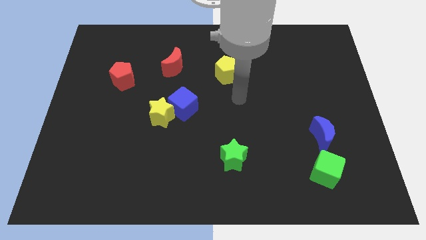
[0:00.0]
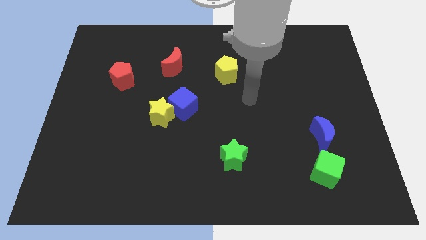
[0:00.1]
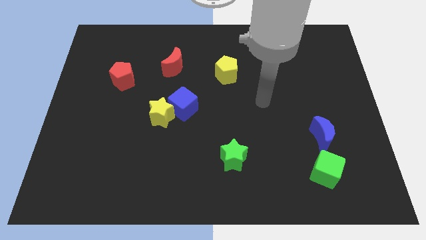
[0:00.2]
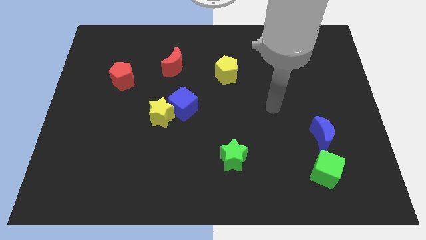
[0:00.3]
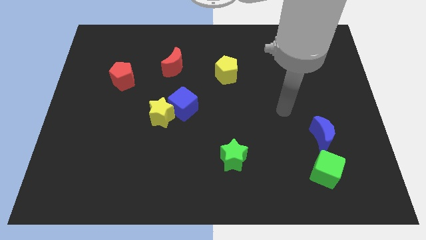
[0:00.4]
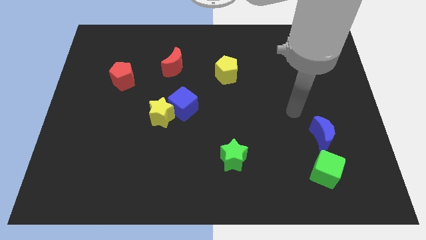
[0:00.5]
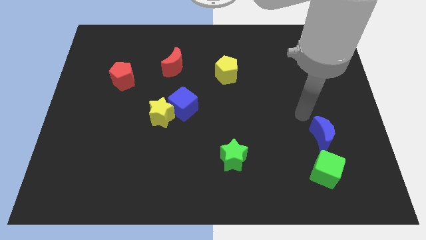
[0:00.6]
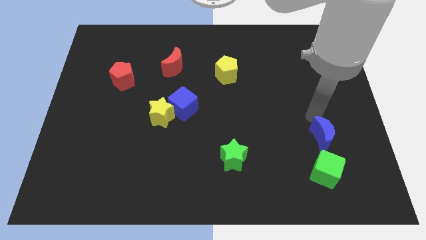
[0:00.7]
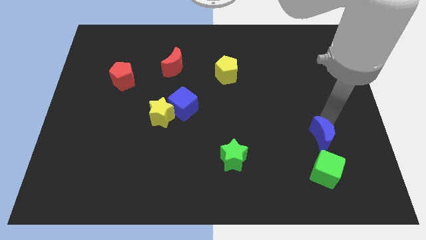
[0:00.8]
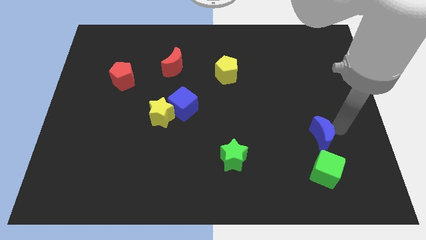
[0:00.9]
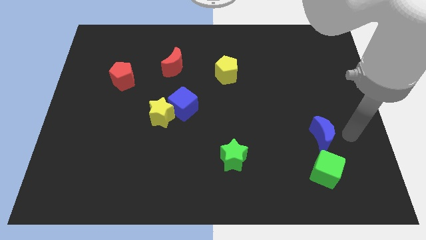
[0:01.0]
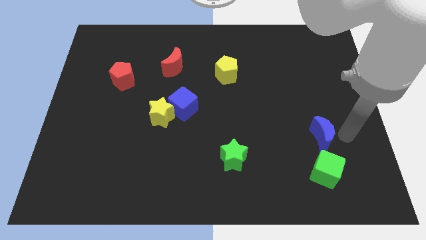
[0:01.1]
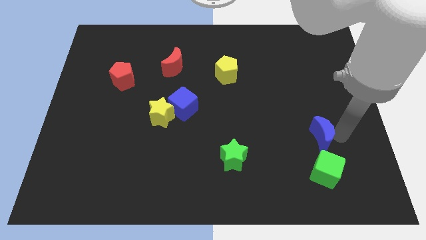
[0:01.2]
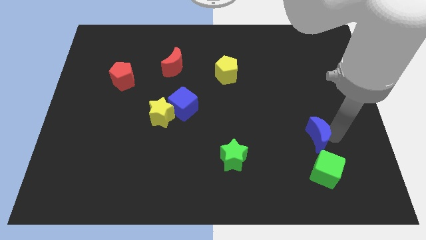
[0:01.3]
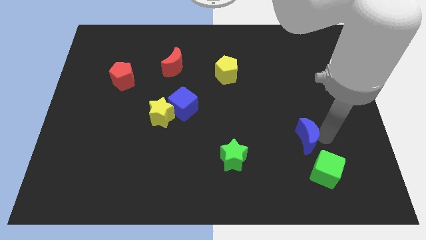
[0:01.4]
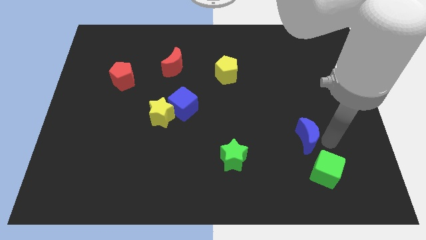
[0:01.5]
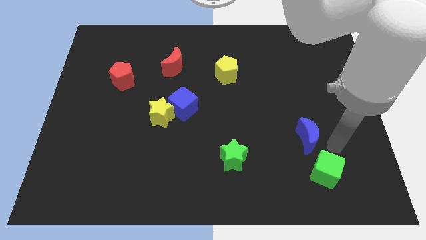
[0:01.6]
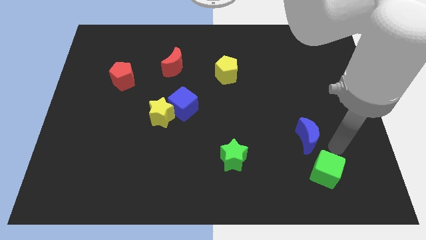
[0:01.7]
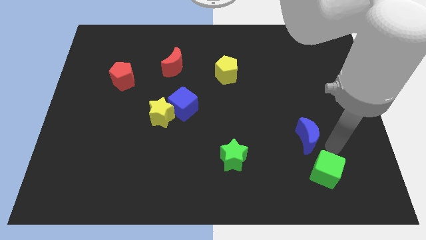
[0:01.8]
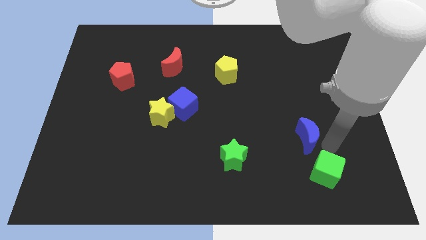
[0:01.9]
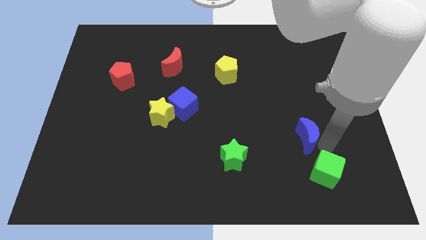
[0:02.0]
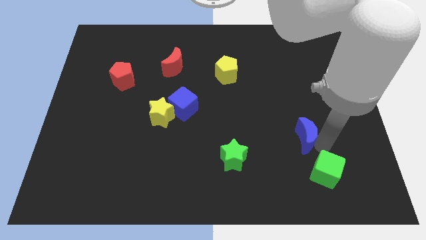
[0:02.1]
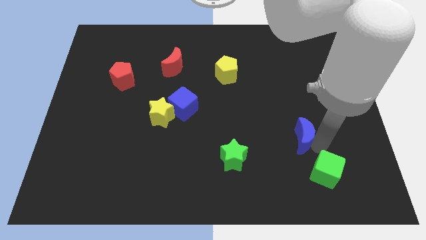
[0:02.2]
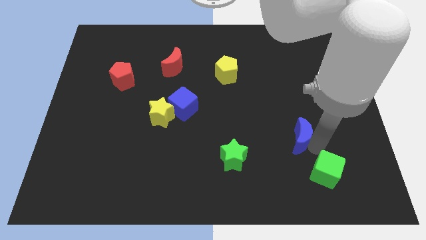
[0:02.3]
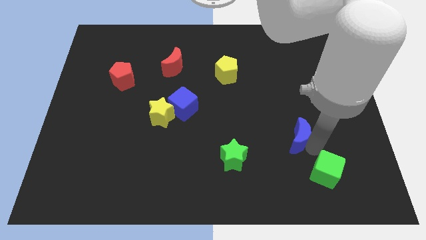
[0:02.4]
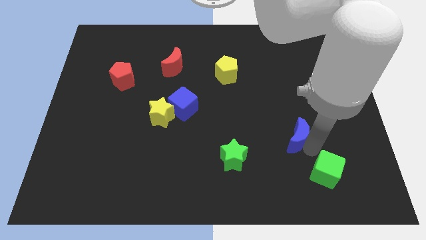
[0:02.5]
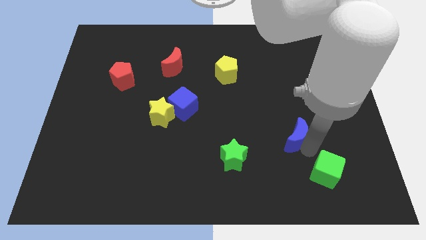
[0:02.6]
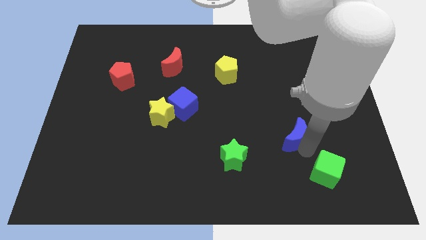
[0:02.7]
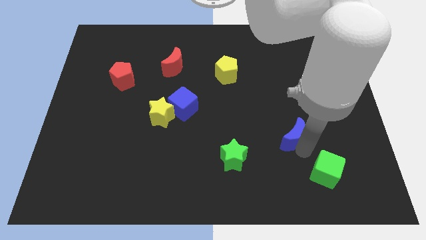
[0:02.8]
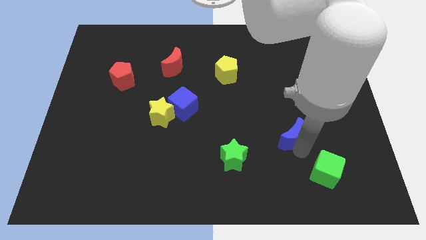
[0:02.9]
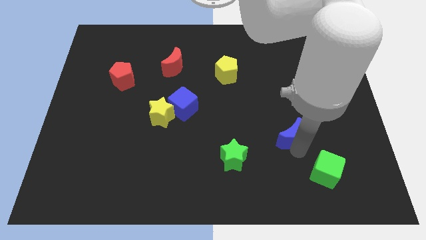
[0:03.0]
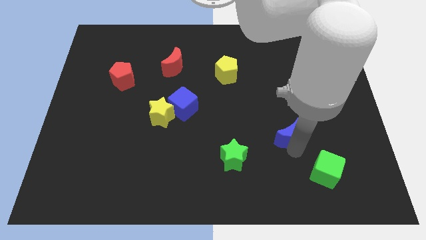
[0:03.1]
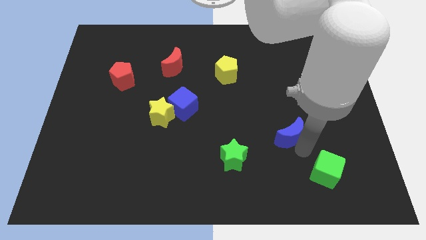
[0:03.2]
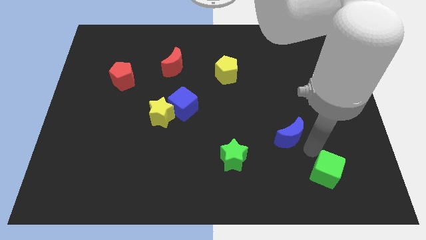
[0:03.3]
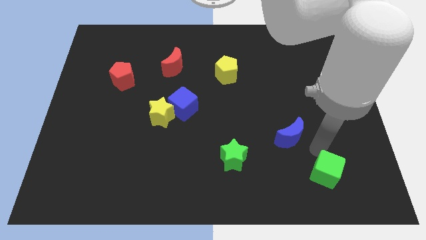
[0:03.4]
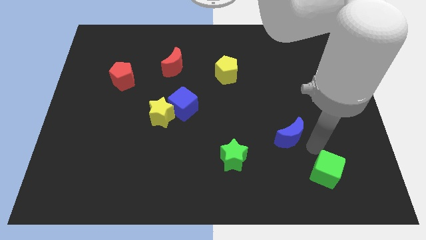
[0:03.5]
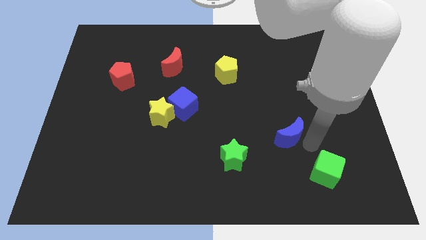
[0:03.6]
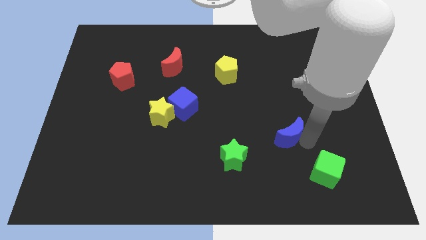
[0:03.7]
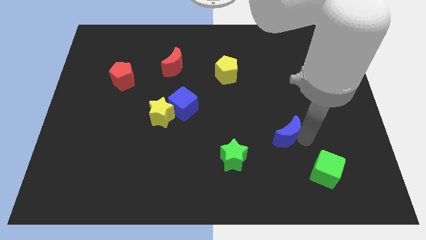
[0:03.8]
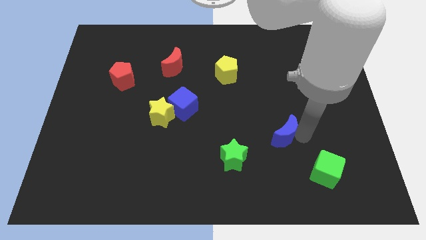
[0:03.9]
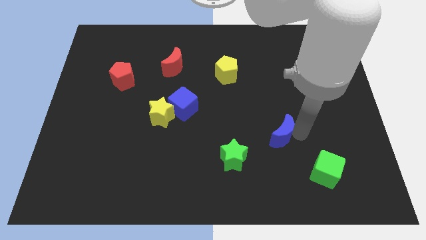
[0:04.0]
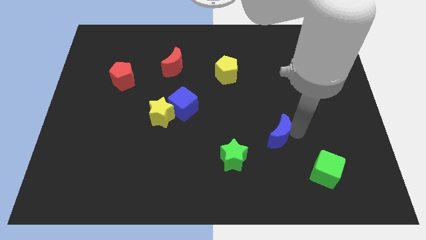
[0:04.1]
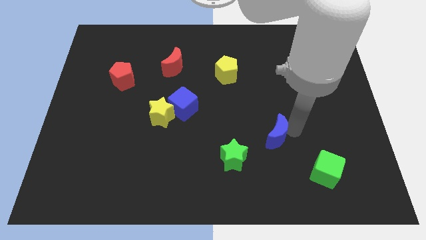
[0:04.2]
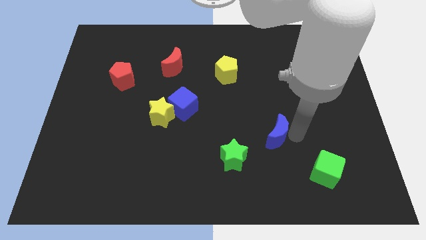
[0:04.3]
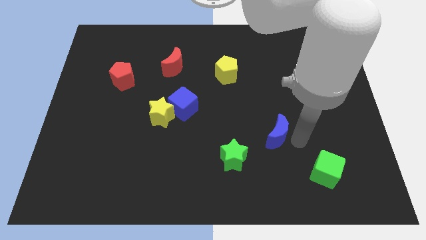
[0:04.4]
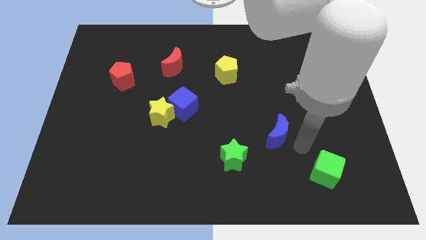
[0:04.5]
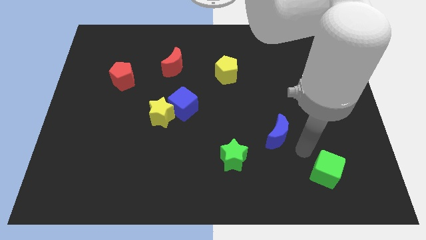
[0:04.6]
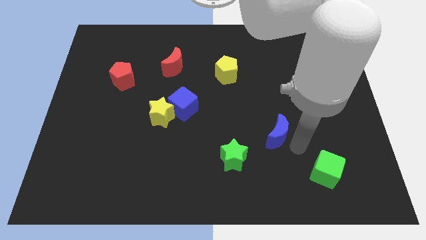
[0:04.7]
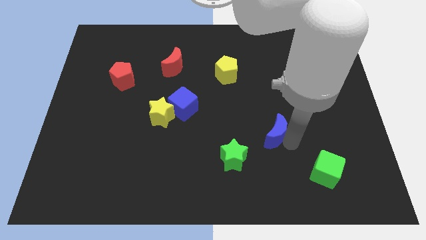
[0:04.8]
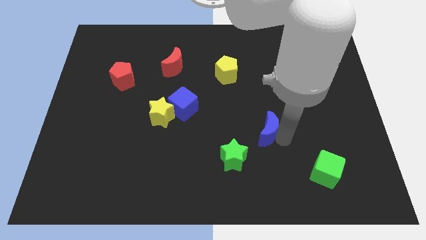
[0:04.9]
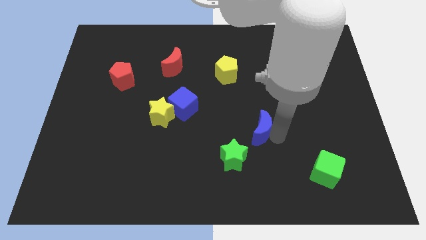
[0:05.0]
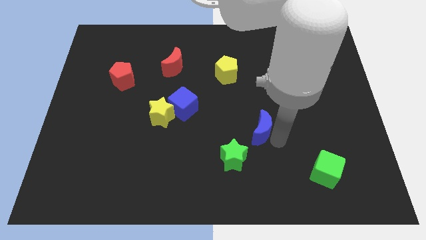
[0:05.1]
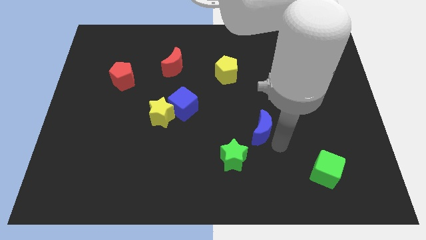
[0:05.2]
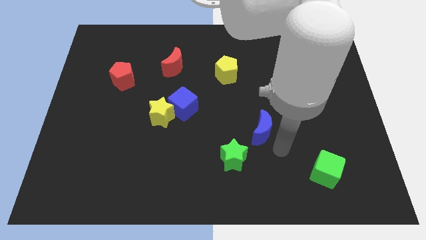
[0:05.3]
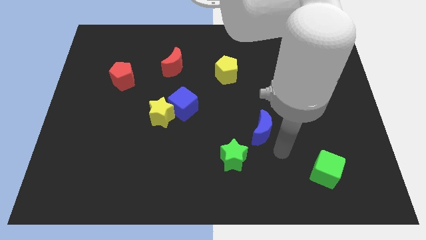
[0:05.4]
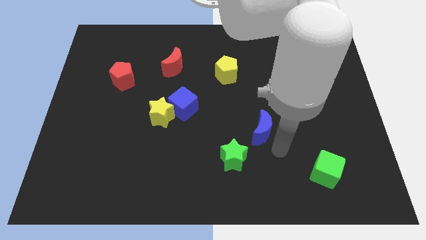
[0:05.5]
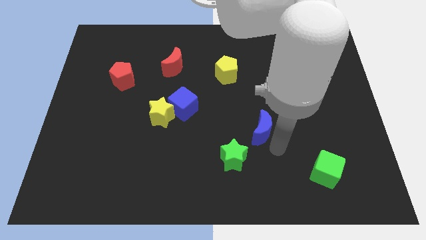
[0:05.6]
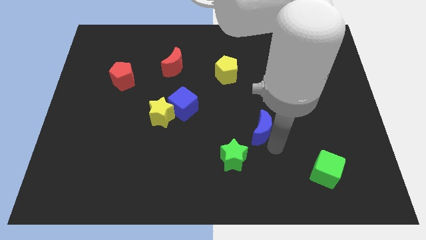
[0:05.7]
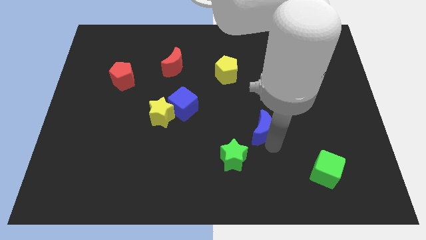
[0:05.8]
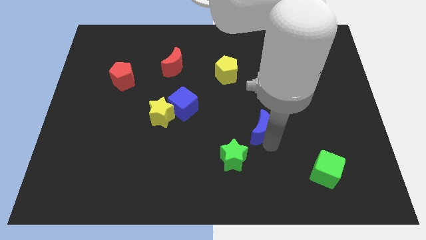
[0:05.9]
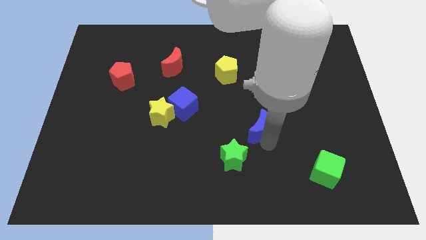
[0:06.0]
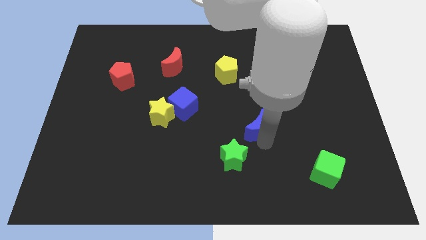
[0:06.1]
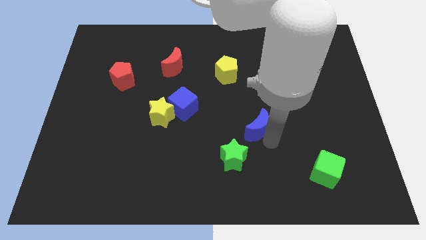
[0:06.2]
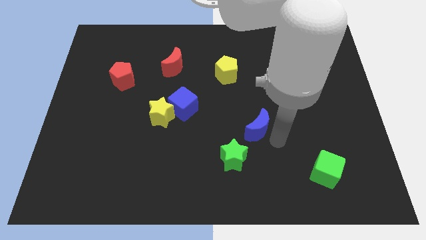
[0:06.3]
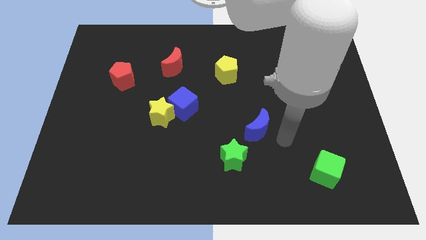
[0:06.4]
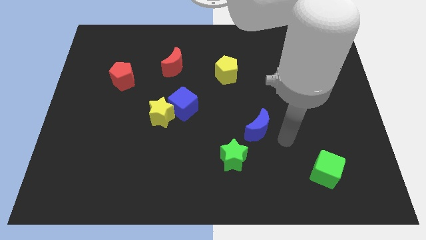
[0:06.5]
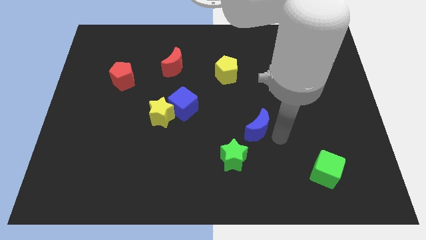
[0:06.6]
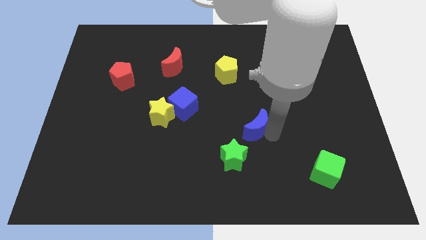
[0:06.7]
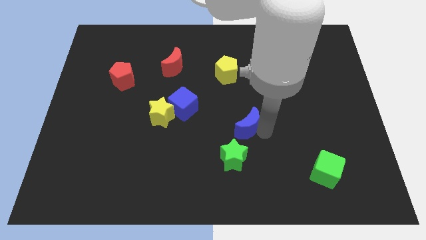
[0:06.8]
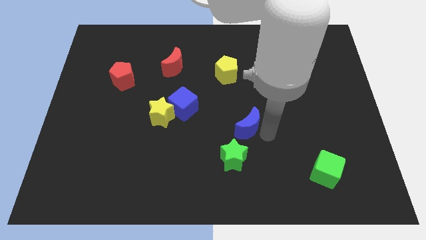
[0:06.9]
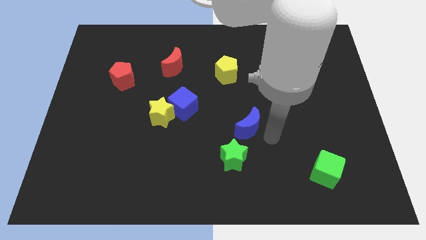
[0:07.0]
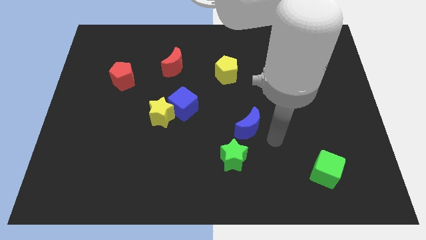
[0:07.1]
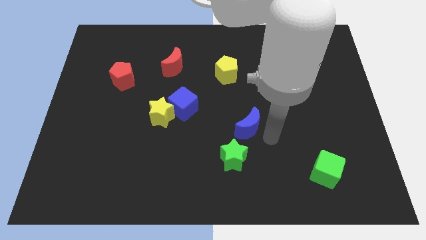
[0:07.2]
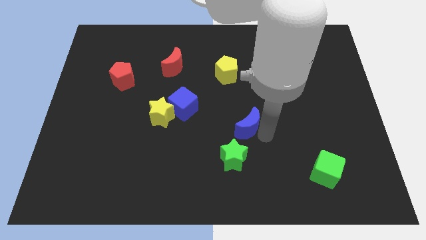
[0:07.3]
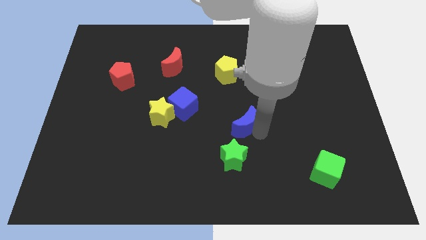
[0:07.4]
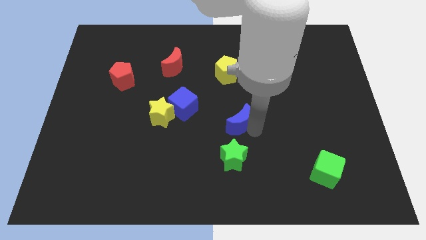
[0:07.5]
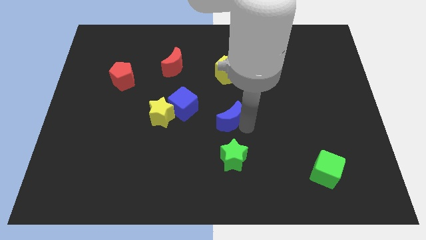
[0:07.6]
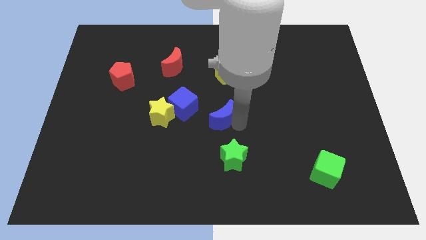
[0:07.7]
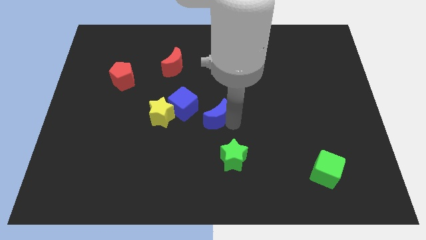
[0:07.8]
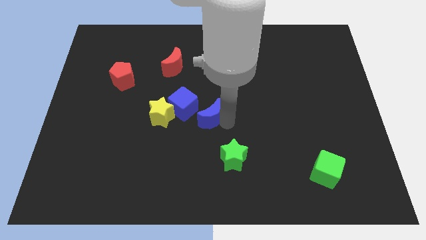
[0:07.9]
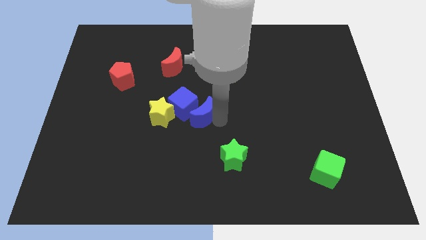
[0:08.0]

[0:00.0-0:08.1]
slide the blue moon to the blue cube
